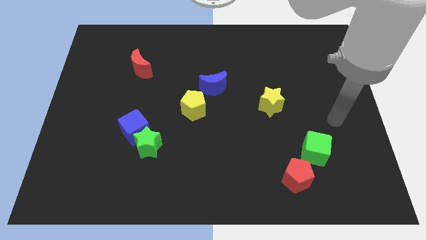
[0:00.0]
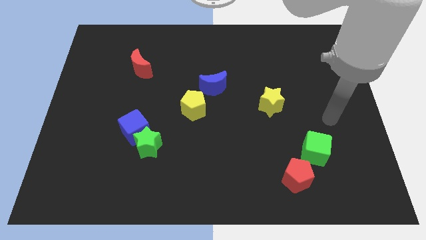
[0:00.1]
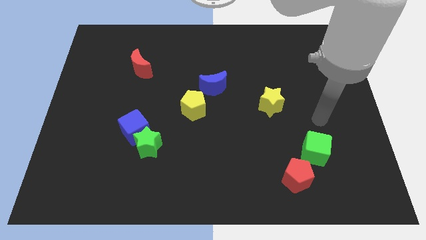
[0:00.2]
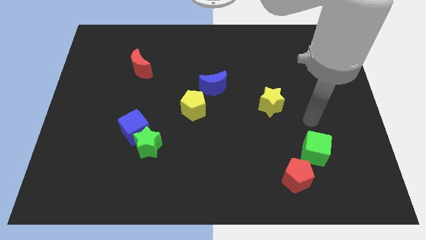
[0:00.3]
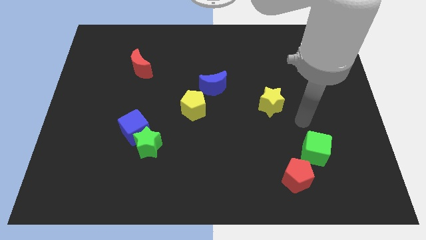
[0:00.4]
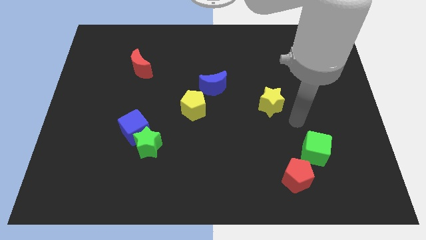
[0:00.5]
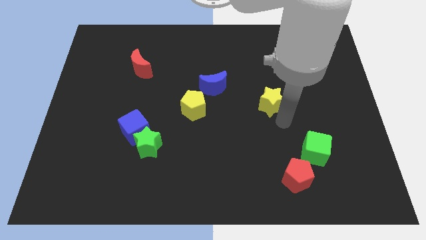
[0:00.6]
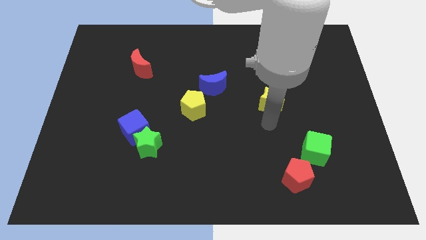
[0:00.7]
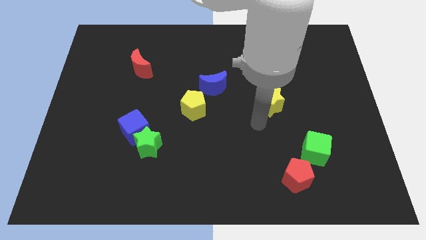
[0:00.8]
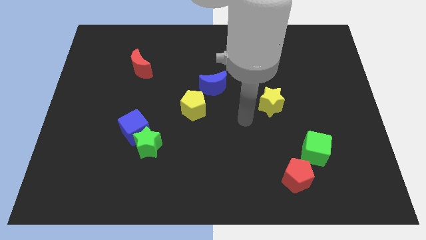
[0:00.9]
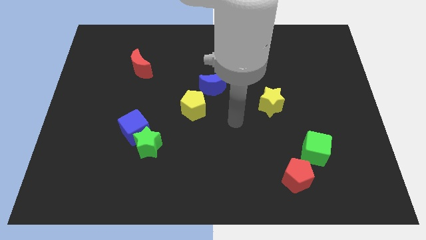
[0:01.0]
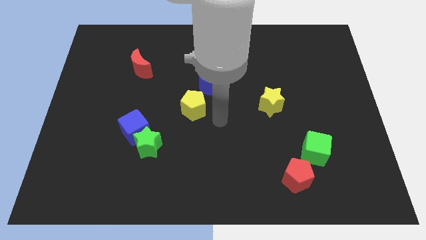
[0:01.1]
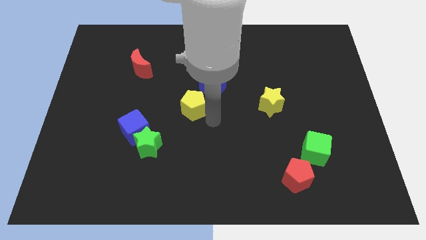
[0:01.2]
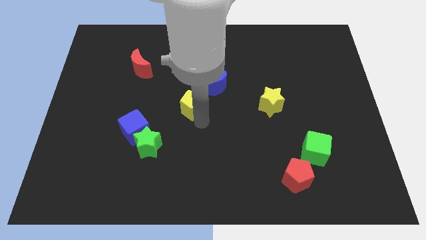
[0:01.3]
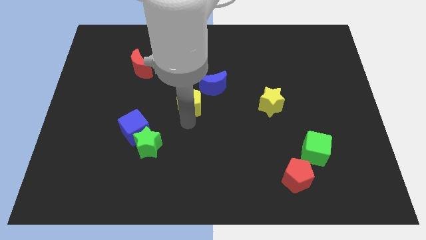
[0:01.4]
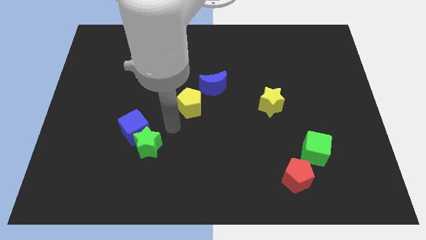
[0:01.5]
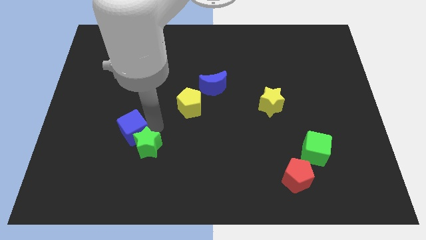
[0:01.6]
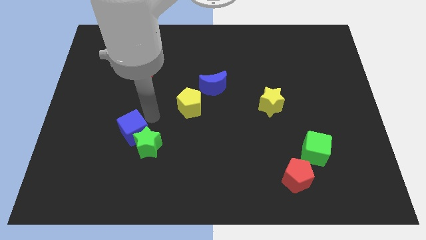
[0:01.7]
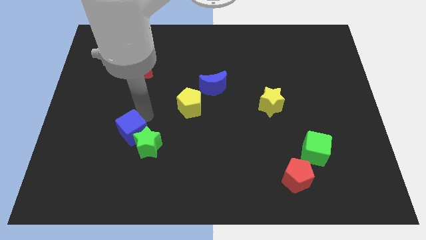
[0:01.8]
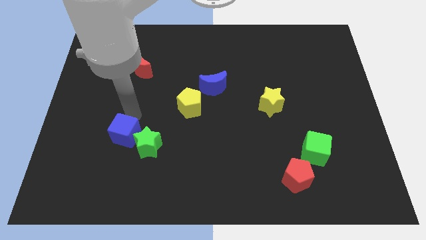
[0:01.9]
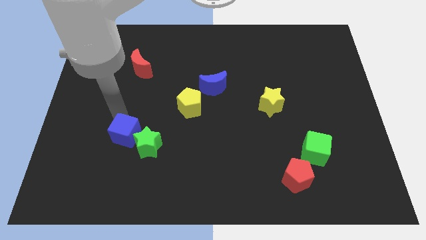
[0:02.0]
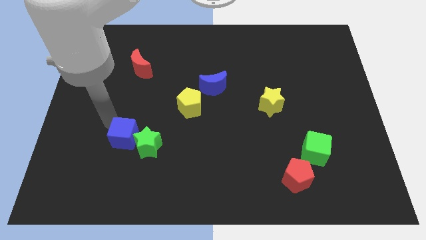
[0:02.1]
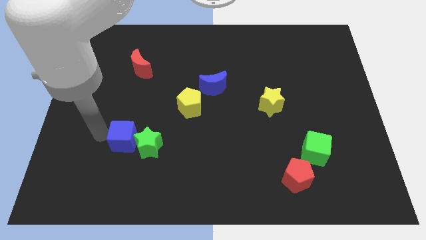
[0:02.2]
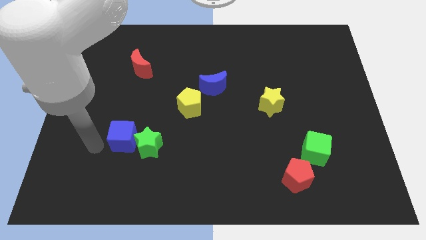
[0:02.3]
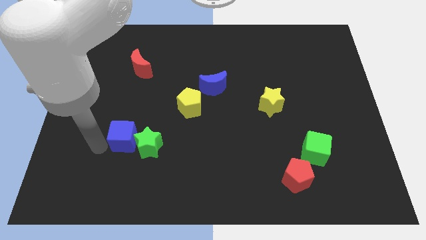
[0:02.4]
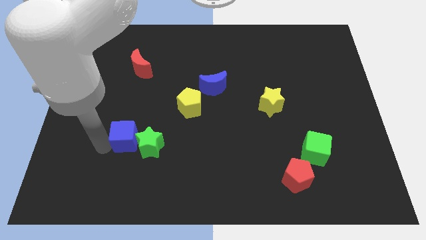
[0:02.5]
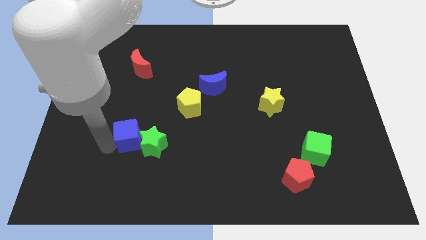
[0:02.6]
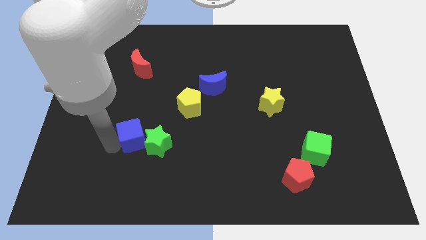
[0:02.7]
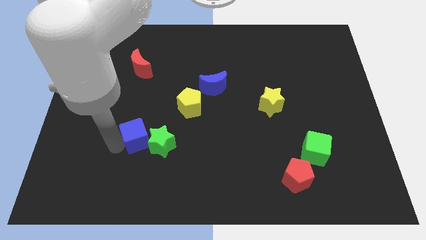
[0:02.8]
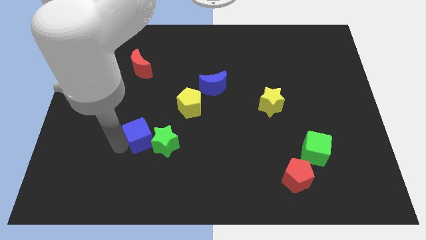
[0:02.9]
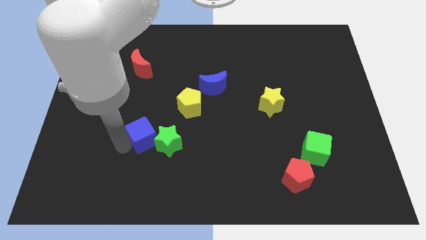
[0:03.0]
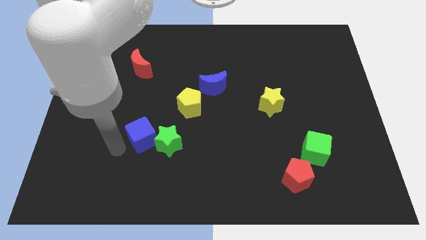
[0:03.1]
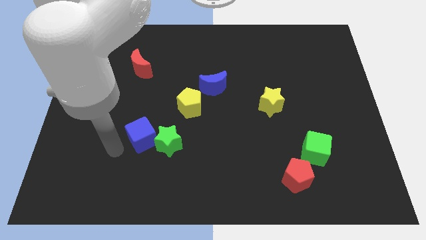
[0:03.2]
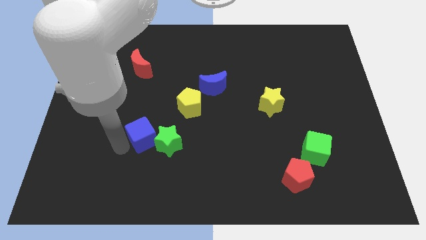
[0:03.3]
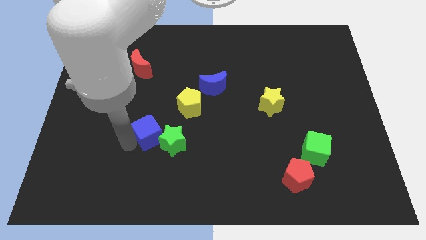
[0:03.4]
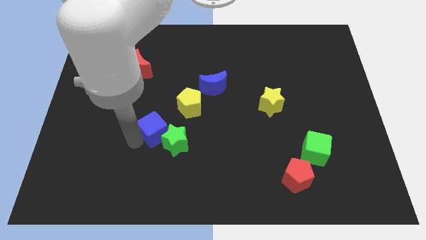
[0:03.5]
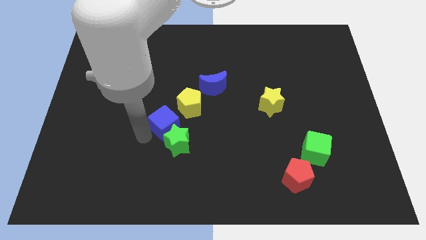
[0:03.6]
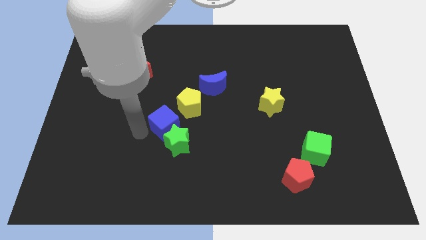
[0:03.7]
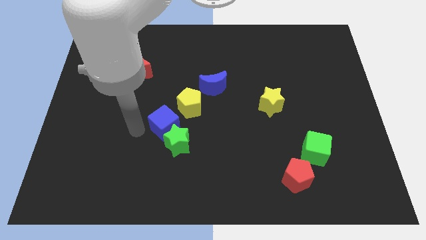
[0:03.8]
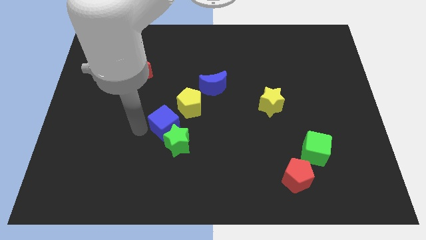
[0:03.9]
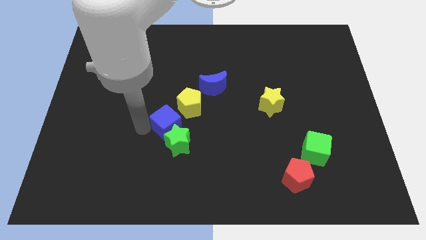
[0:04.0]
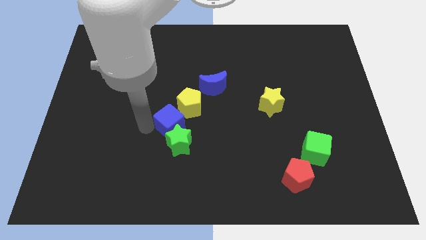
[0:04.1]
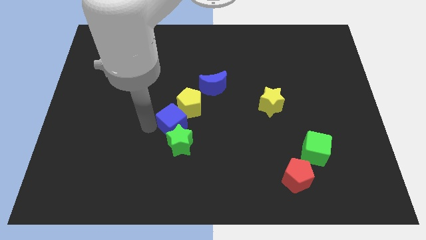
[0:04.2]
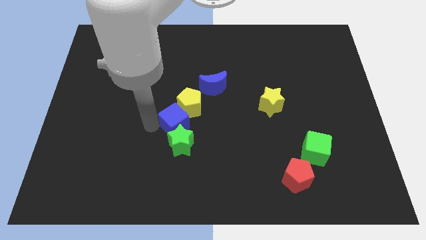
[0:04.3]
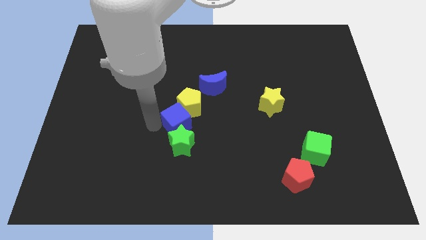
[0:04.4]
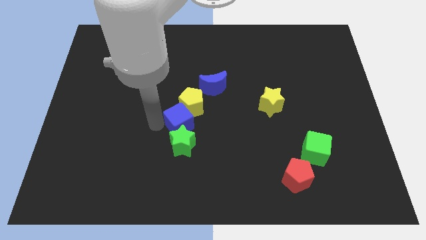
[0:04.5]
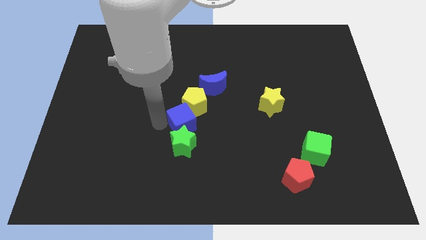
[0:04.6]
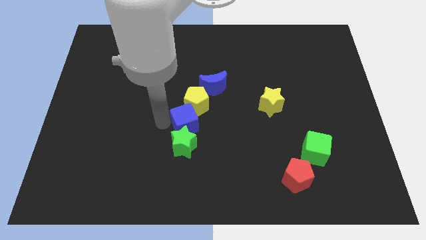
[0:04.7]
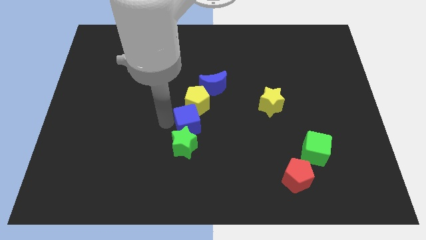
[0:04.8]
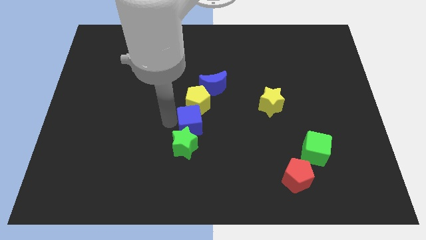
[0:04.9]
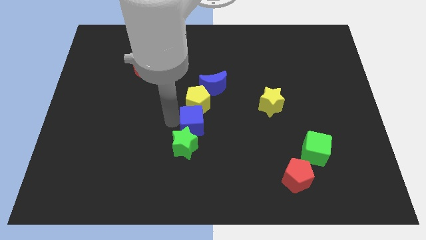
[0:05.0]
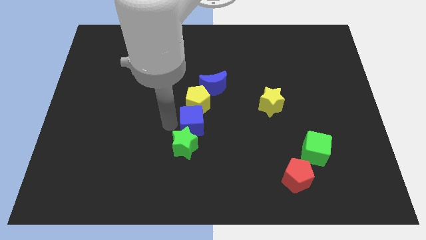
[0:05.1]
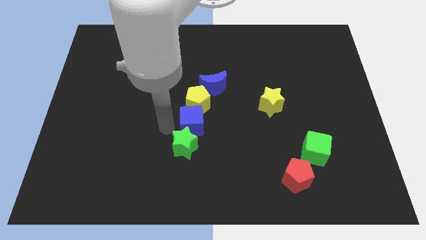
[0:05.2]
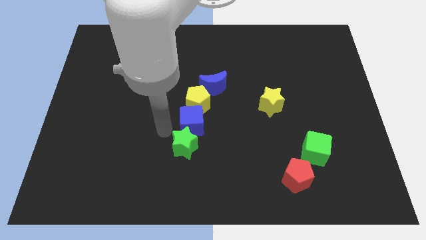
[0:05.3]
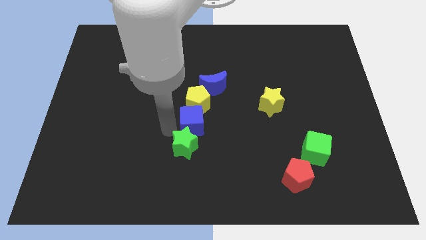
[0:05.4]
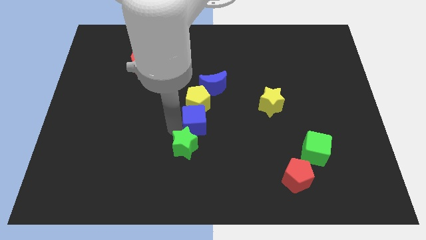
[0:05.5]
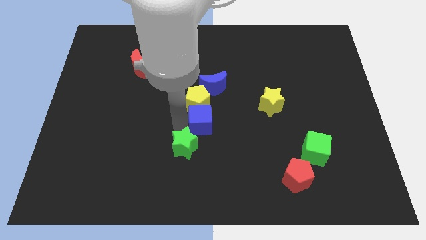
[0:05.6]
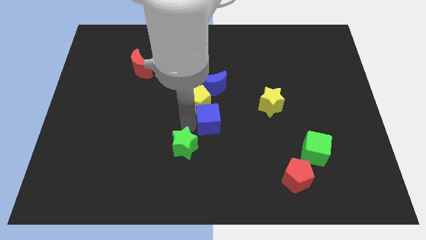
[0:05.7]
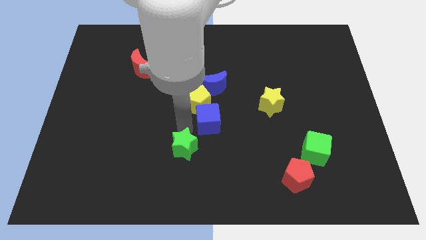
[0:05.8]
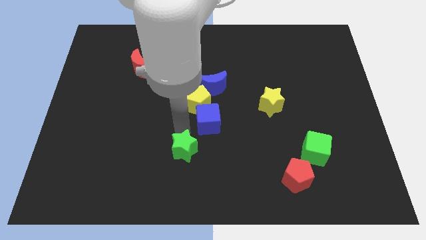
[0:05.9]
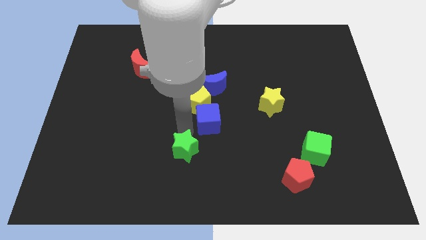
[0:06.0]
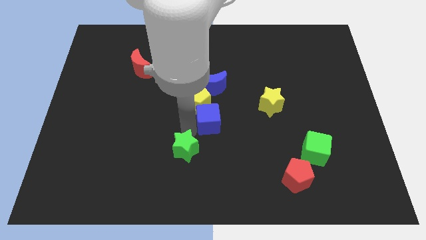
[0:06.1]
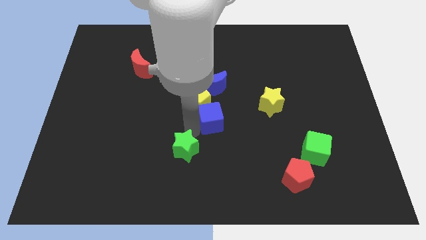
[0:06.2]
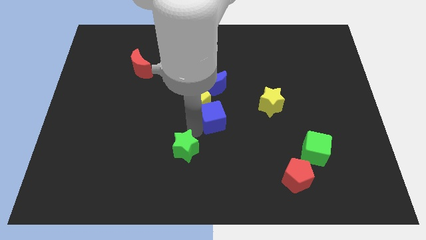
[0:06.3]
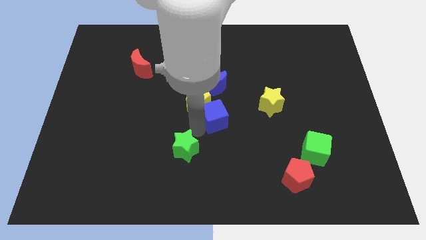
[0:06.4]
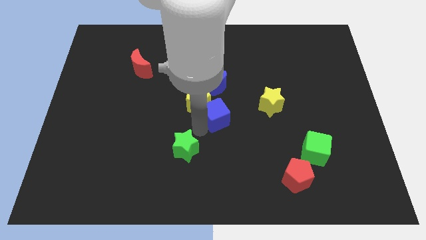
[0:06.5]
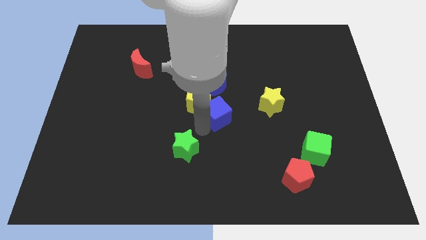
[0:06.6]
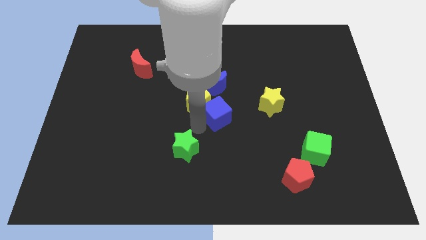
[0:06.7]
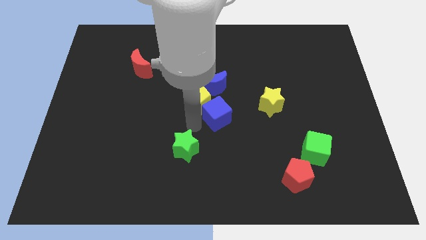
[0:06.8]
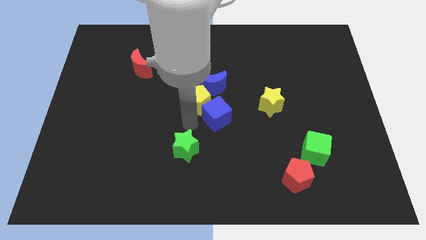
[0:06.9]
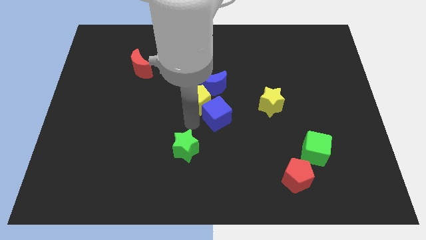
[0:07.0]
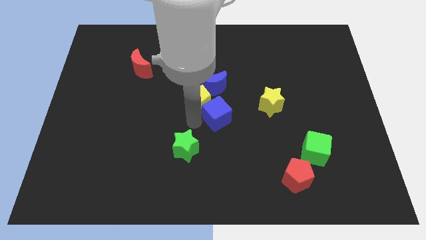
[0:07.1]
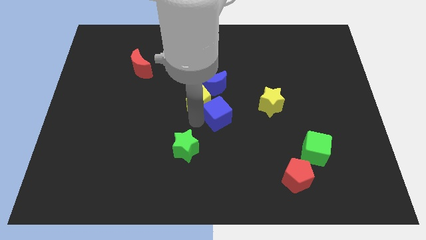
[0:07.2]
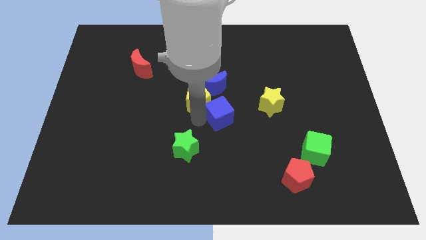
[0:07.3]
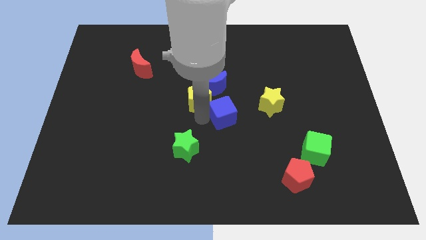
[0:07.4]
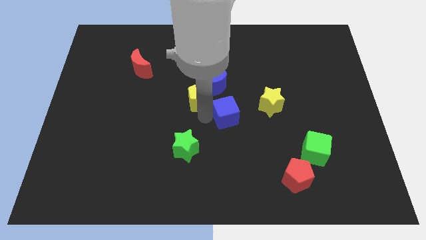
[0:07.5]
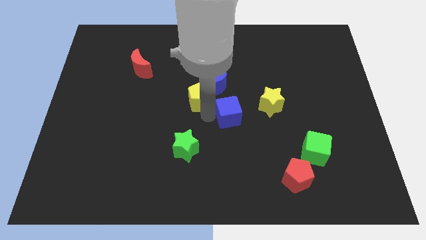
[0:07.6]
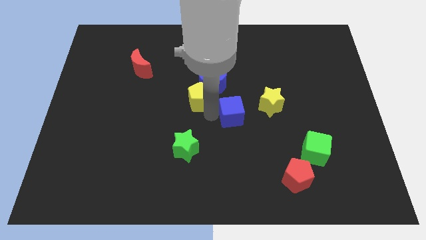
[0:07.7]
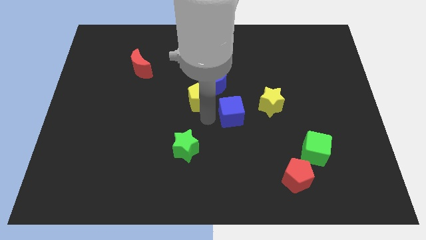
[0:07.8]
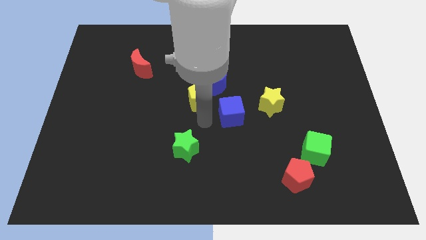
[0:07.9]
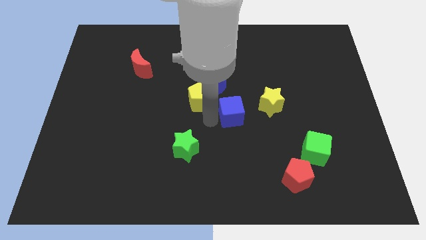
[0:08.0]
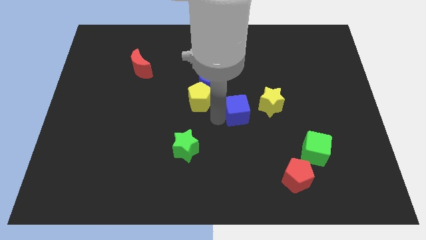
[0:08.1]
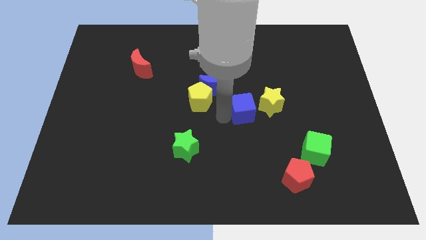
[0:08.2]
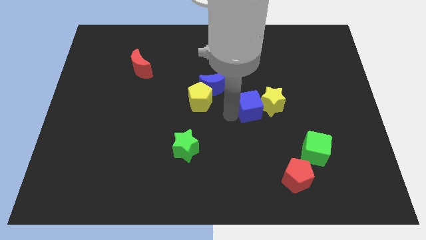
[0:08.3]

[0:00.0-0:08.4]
push the blue cube next to the yellow star
